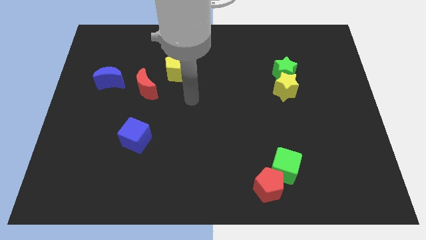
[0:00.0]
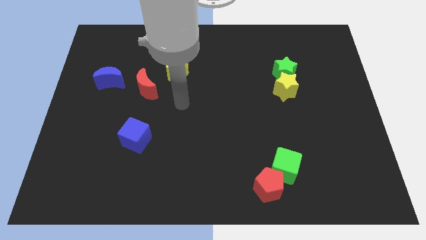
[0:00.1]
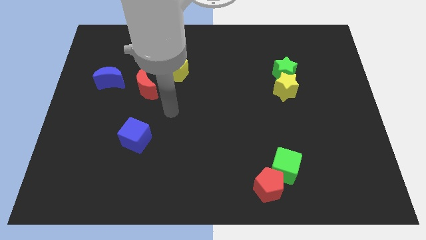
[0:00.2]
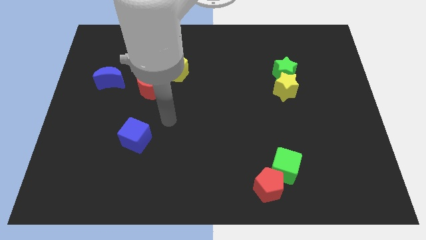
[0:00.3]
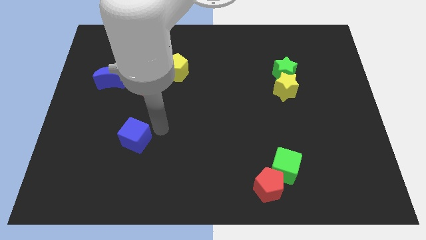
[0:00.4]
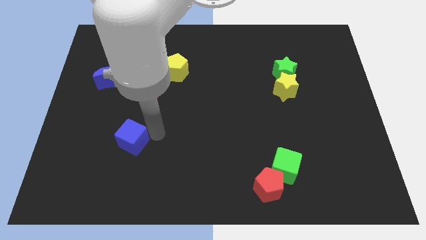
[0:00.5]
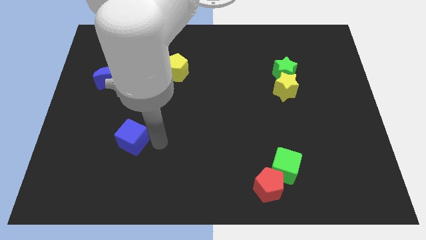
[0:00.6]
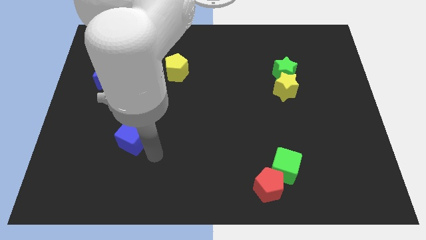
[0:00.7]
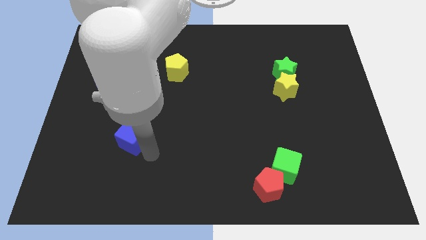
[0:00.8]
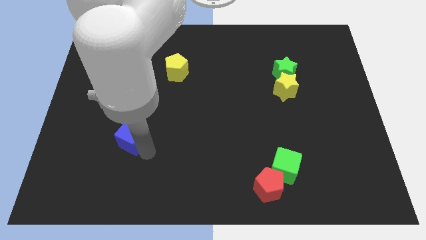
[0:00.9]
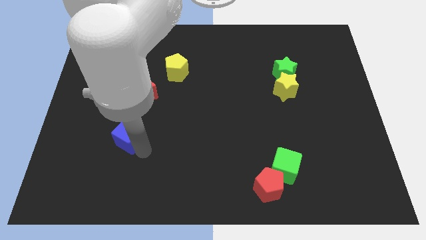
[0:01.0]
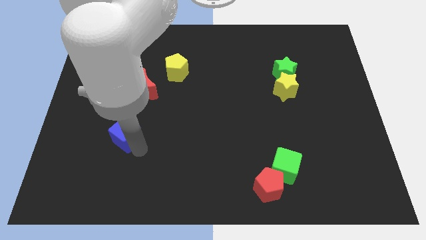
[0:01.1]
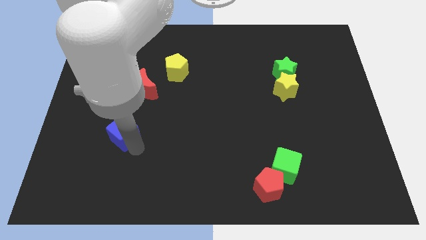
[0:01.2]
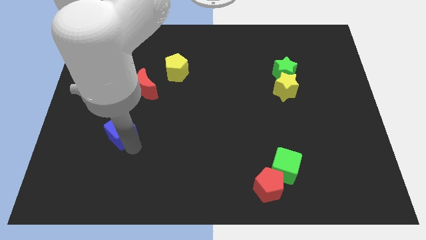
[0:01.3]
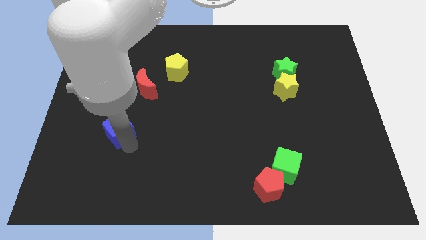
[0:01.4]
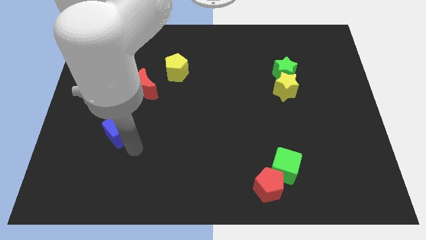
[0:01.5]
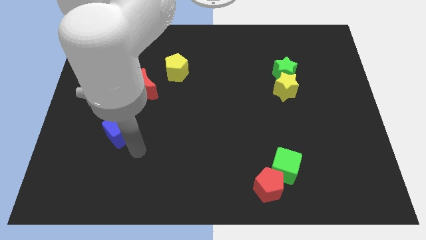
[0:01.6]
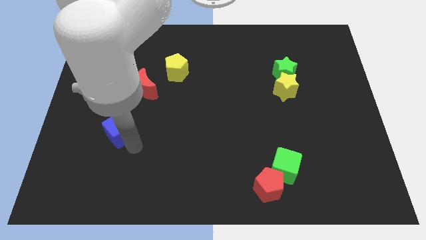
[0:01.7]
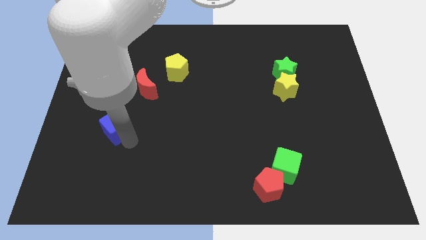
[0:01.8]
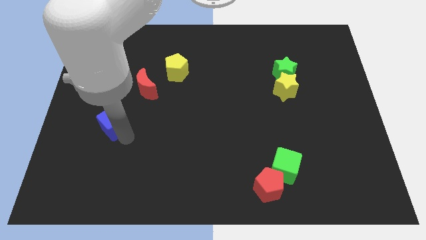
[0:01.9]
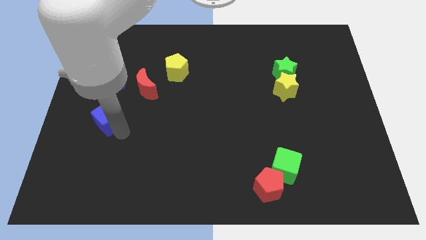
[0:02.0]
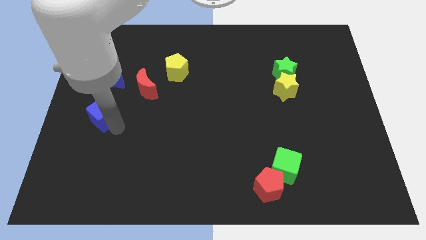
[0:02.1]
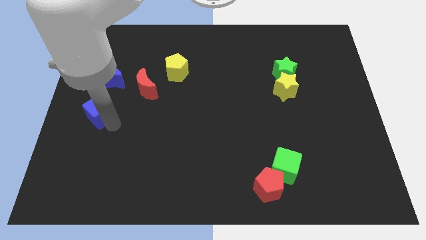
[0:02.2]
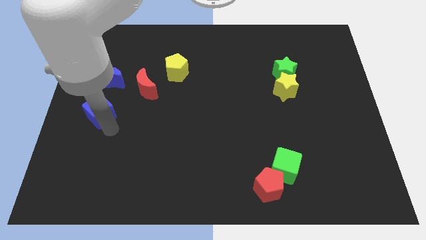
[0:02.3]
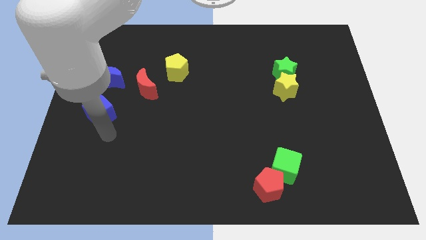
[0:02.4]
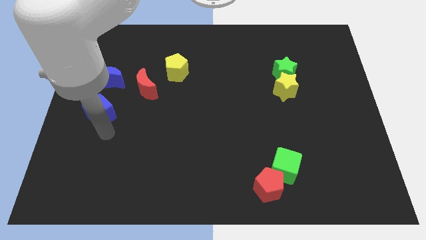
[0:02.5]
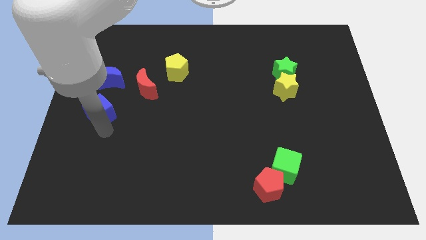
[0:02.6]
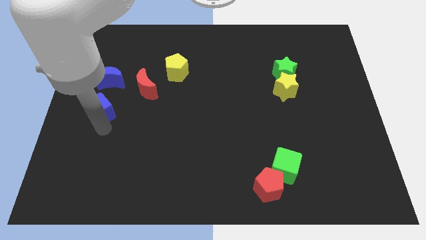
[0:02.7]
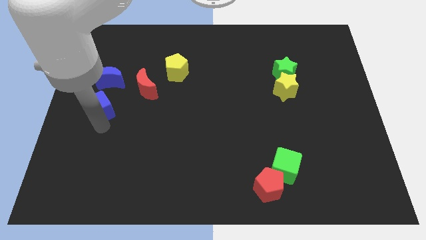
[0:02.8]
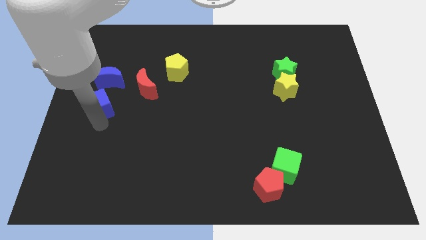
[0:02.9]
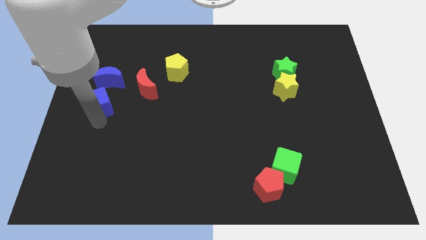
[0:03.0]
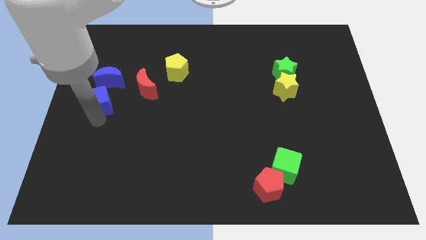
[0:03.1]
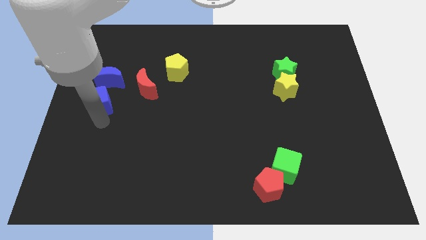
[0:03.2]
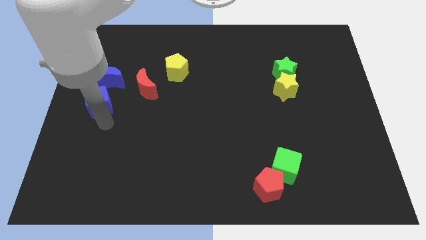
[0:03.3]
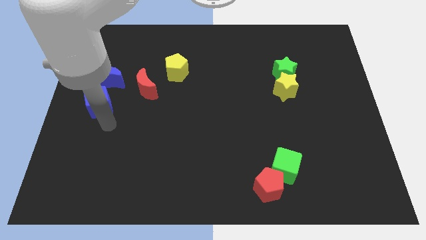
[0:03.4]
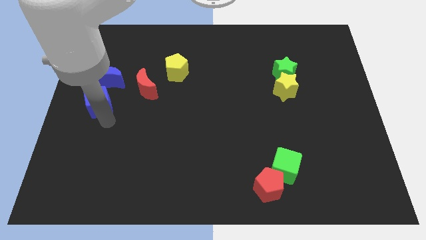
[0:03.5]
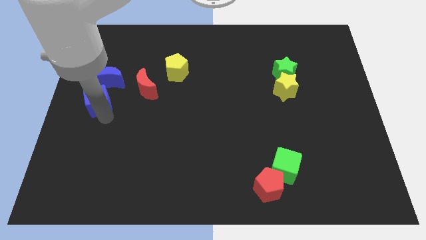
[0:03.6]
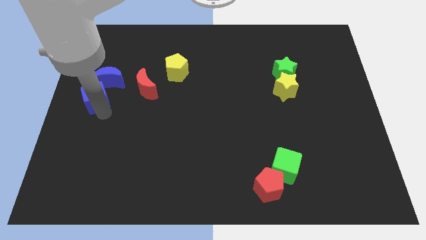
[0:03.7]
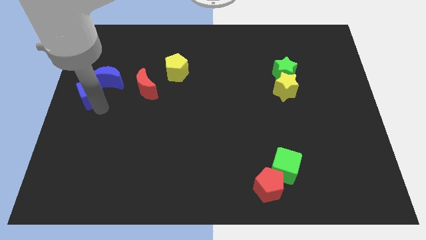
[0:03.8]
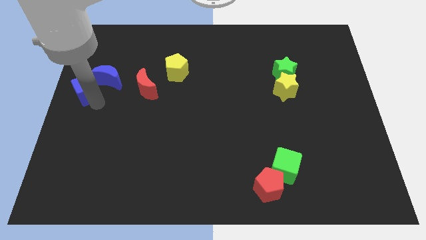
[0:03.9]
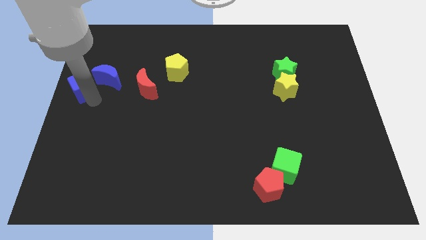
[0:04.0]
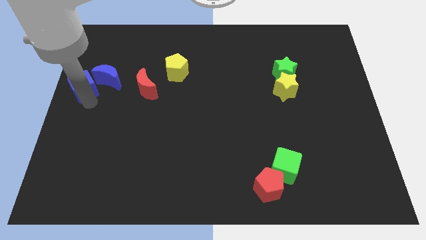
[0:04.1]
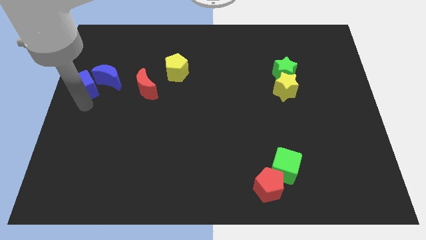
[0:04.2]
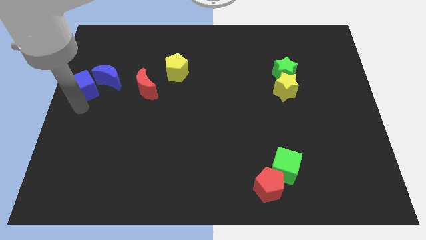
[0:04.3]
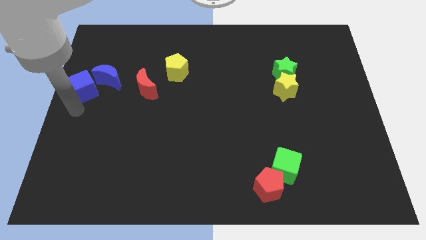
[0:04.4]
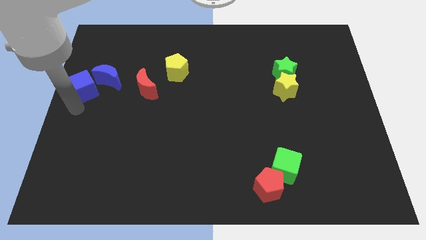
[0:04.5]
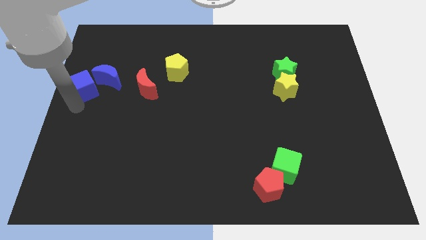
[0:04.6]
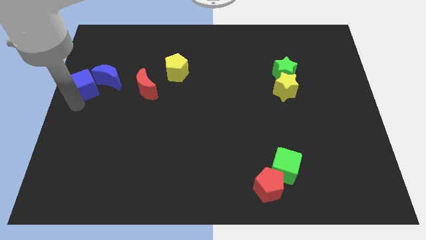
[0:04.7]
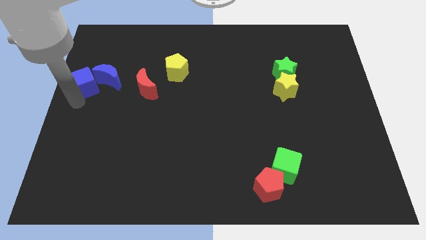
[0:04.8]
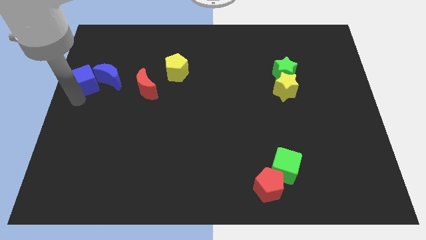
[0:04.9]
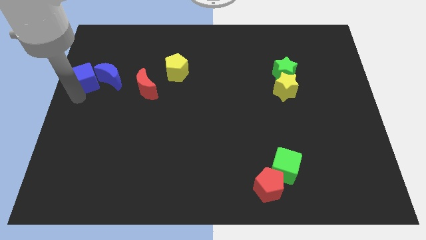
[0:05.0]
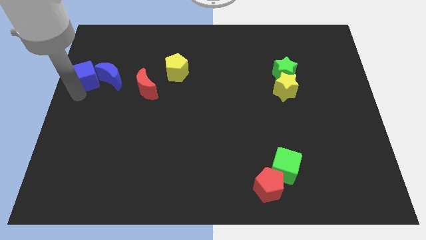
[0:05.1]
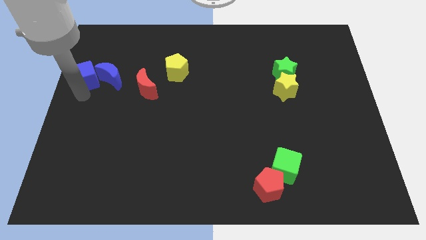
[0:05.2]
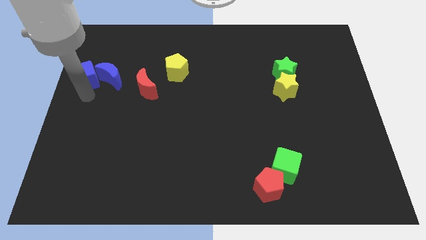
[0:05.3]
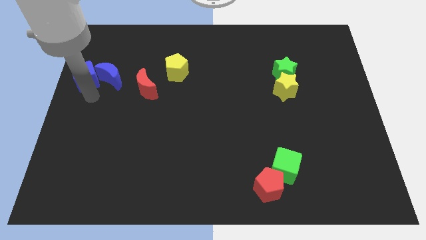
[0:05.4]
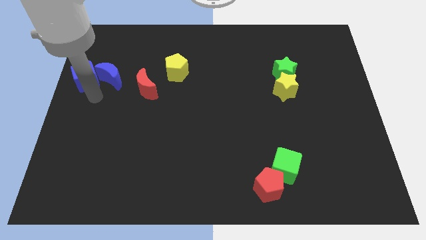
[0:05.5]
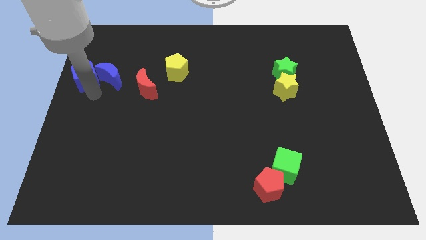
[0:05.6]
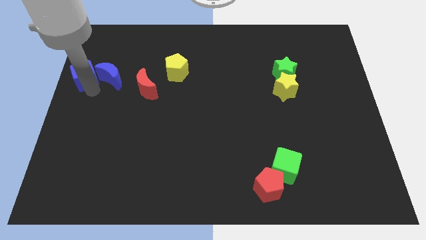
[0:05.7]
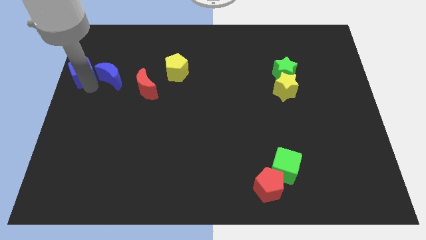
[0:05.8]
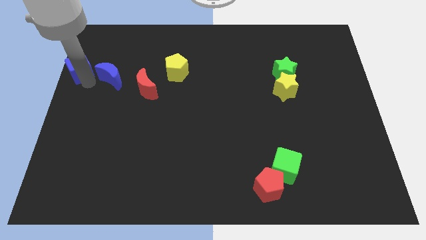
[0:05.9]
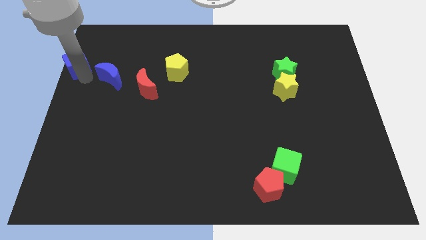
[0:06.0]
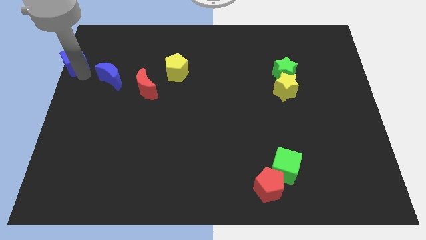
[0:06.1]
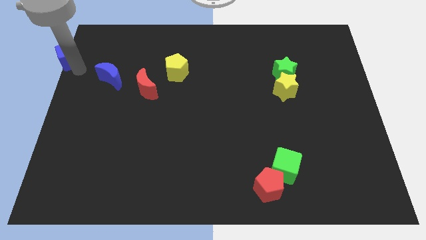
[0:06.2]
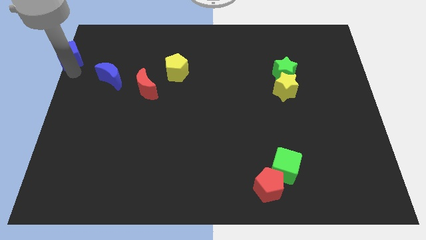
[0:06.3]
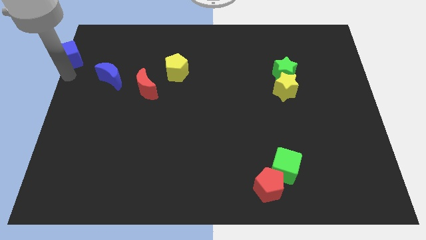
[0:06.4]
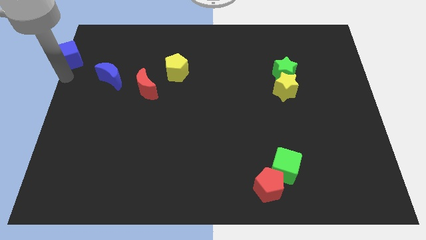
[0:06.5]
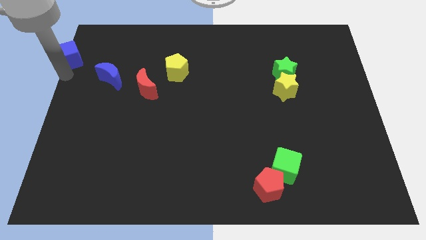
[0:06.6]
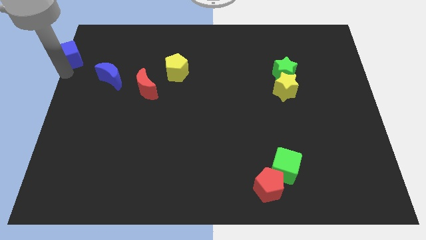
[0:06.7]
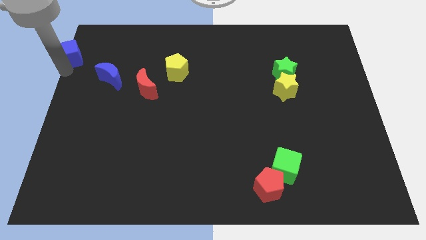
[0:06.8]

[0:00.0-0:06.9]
slide the blue cube to the upper left corner
